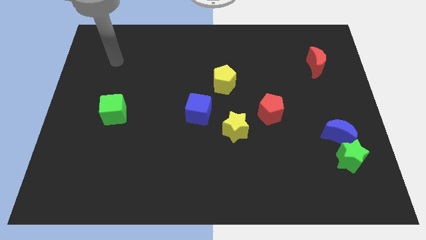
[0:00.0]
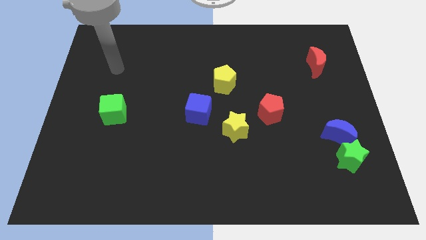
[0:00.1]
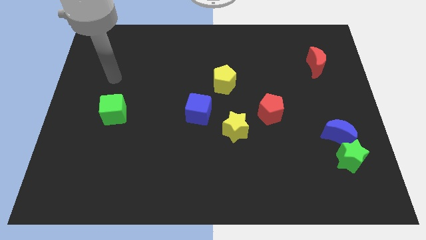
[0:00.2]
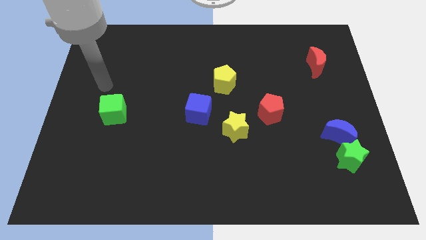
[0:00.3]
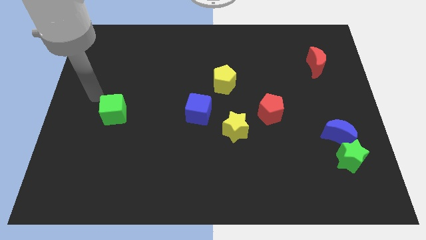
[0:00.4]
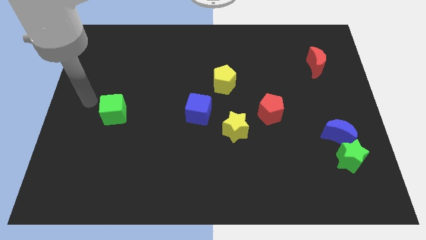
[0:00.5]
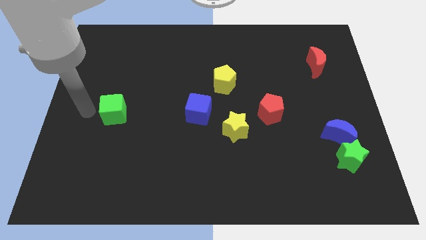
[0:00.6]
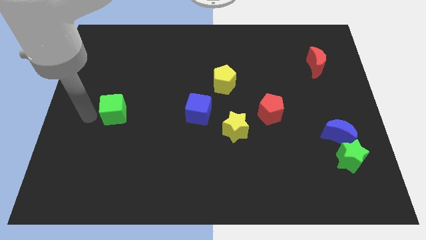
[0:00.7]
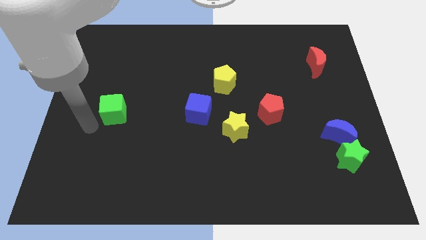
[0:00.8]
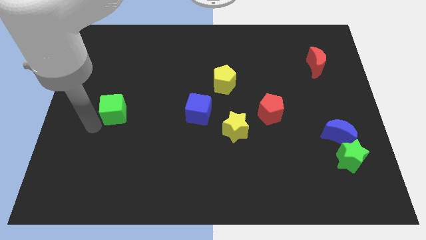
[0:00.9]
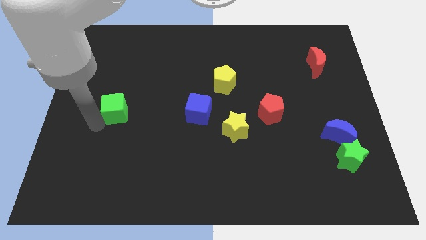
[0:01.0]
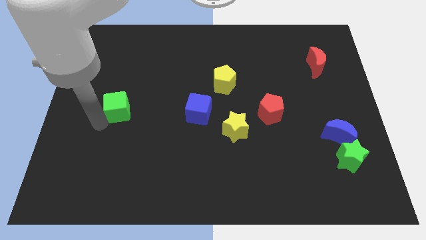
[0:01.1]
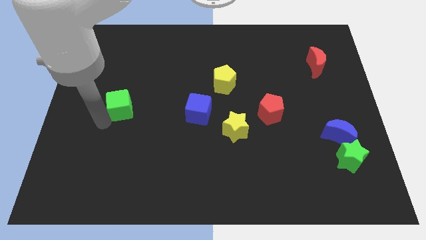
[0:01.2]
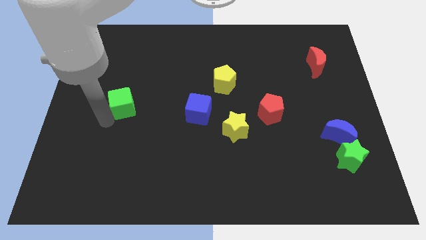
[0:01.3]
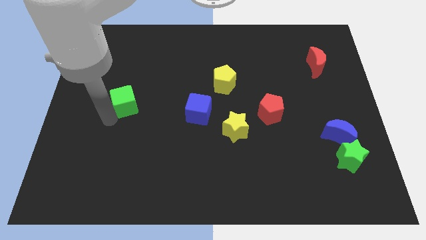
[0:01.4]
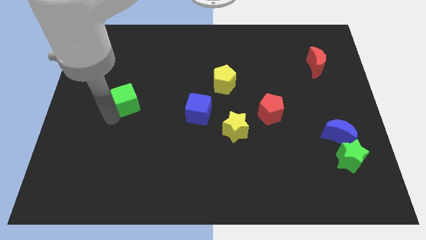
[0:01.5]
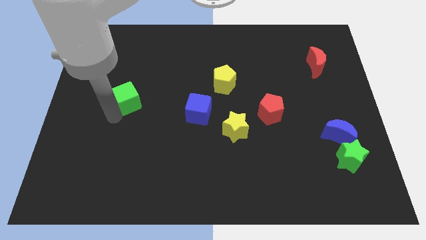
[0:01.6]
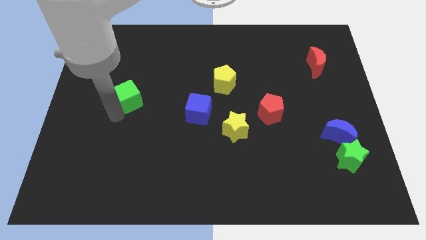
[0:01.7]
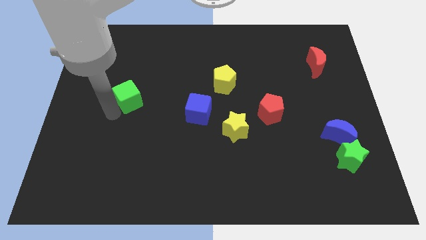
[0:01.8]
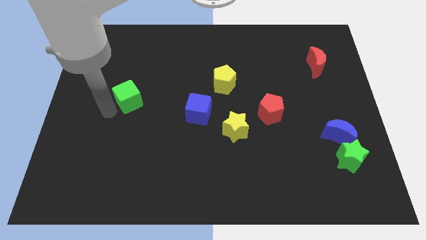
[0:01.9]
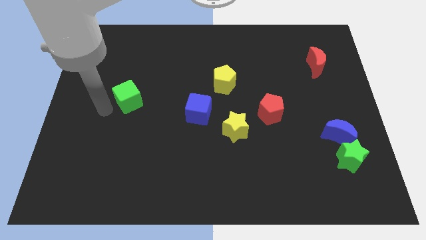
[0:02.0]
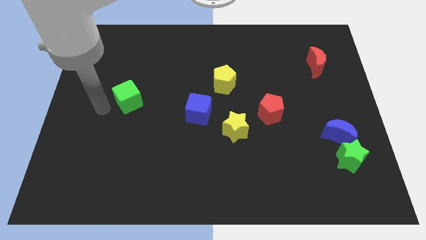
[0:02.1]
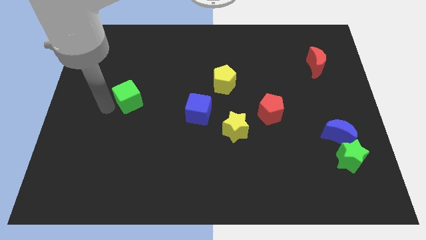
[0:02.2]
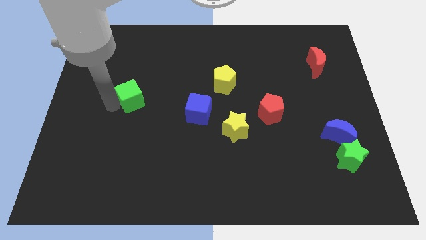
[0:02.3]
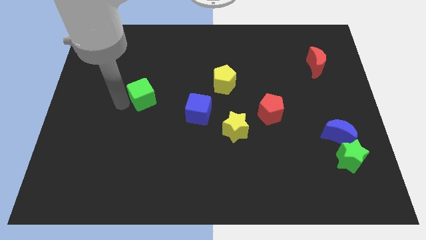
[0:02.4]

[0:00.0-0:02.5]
move the green cube up and to the right diagonally a bit

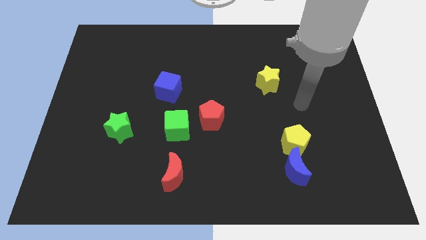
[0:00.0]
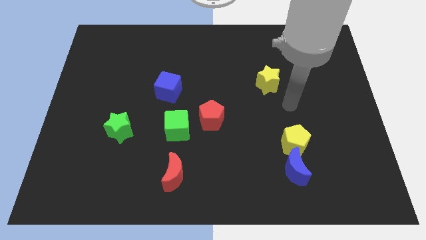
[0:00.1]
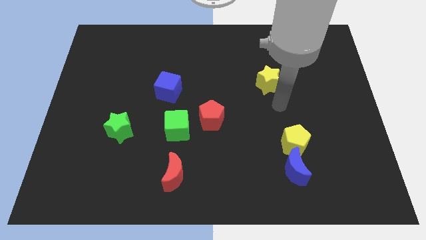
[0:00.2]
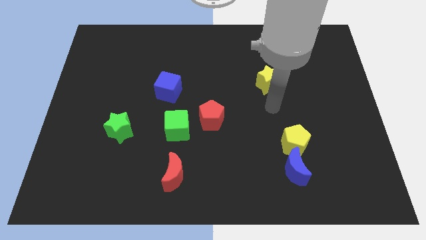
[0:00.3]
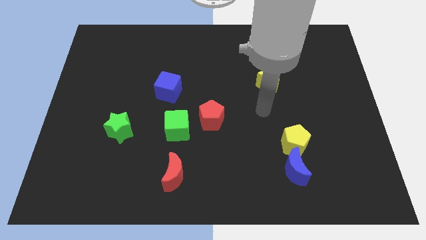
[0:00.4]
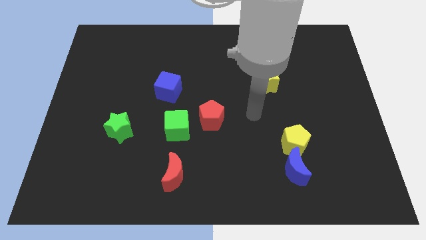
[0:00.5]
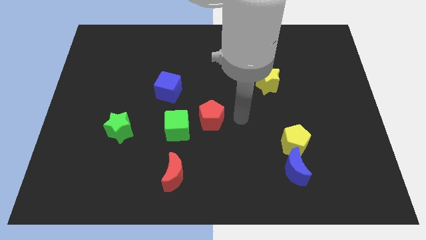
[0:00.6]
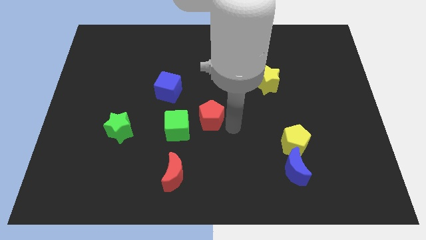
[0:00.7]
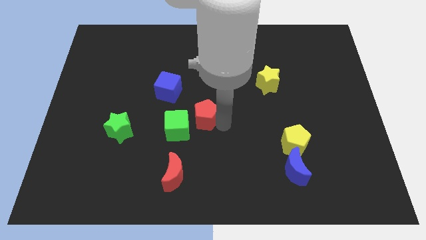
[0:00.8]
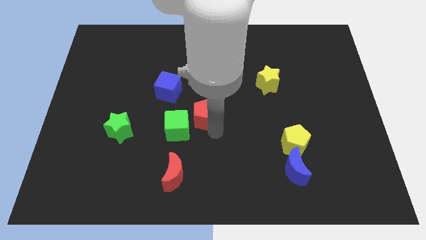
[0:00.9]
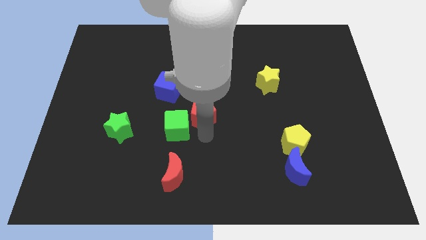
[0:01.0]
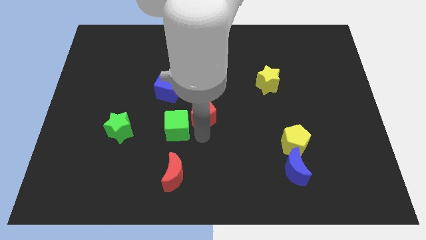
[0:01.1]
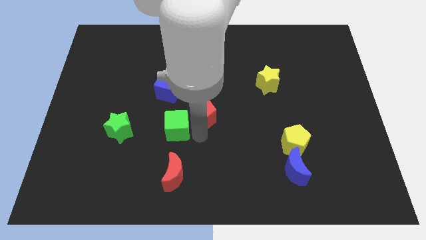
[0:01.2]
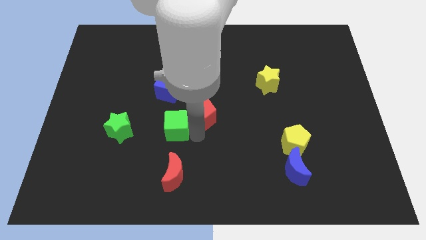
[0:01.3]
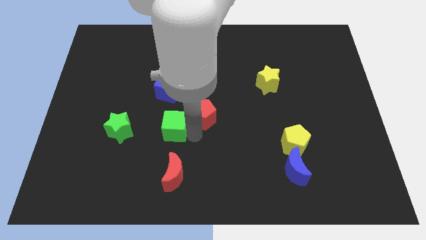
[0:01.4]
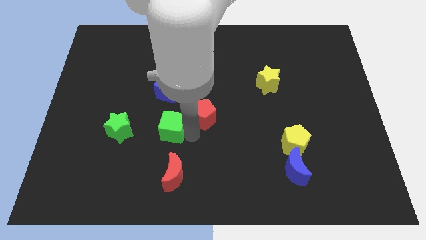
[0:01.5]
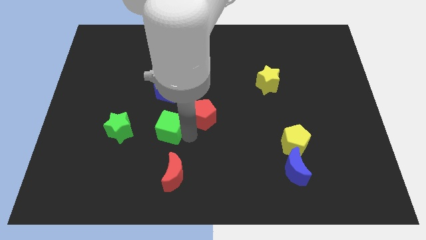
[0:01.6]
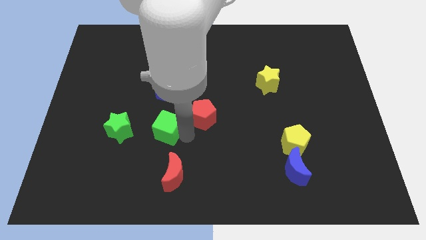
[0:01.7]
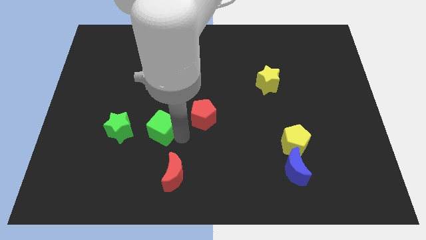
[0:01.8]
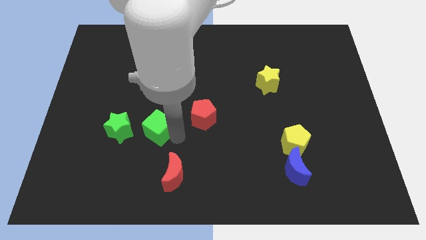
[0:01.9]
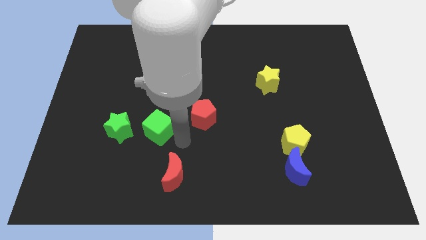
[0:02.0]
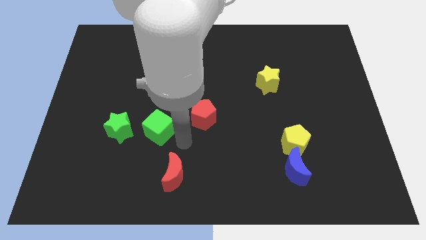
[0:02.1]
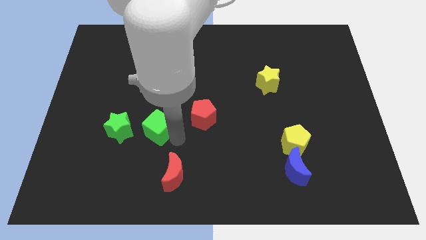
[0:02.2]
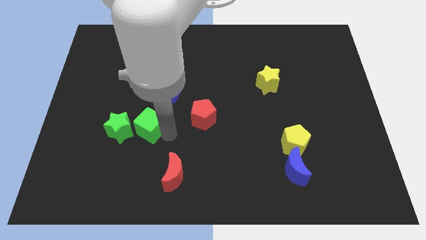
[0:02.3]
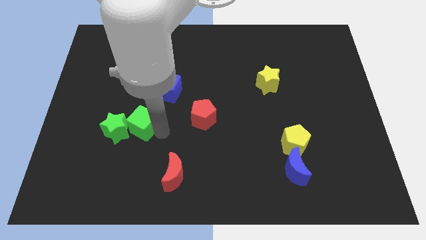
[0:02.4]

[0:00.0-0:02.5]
push the green cube left slightly

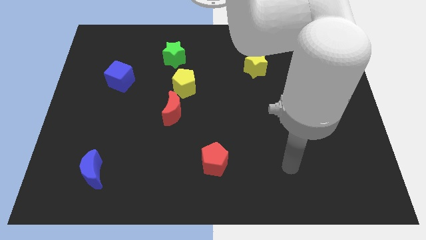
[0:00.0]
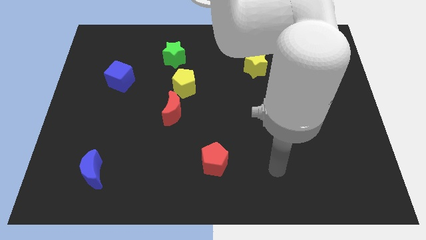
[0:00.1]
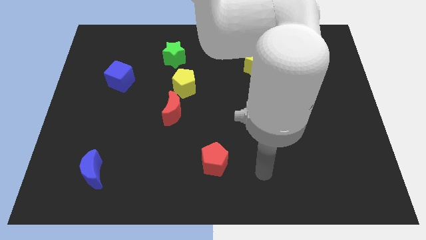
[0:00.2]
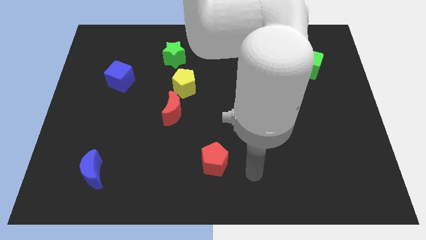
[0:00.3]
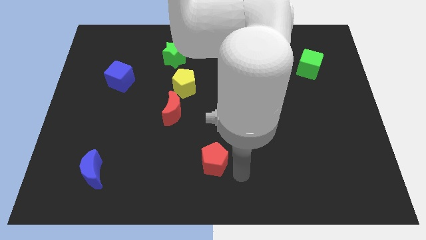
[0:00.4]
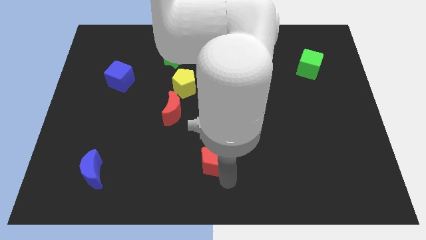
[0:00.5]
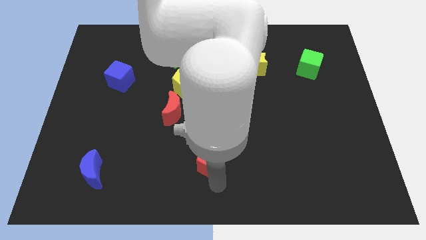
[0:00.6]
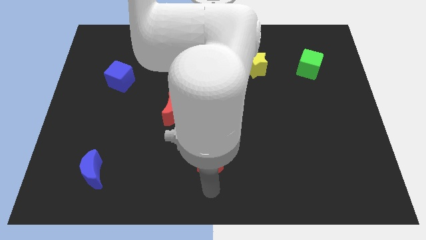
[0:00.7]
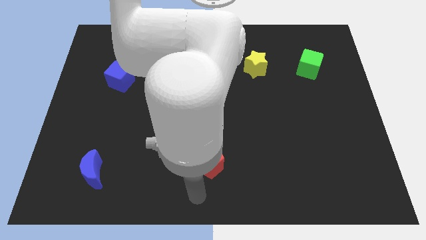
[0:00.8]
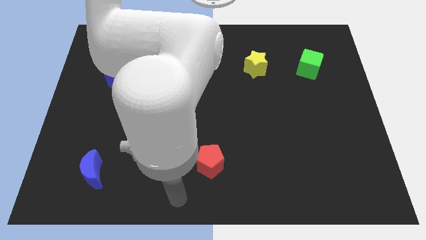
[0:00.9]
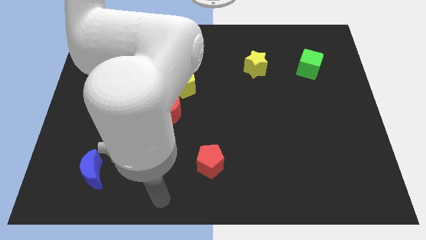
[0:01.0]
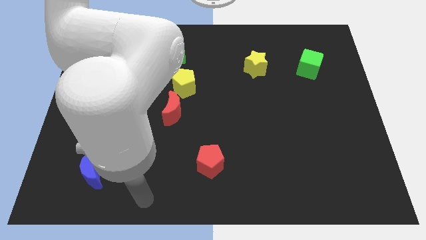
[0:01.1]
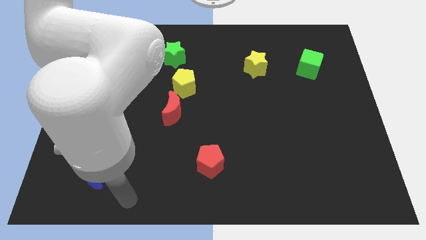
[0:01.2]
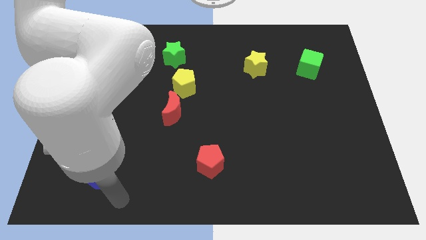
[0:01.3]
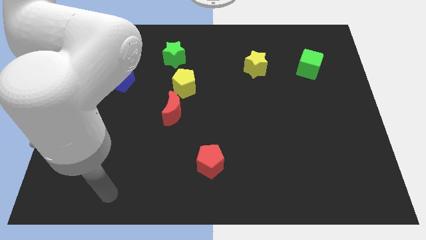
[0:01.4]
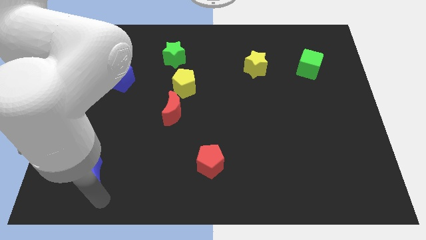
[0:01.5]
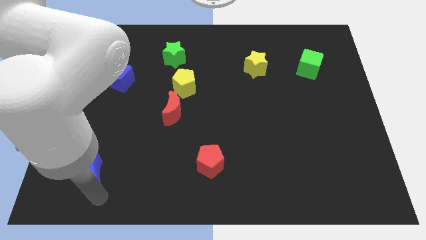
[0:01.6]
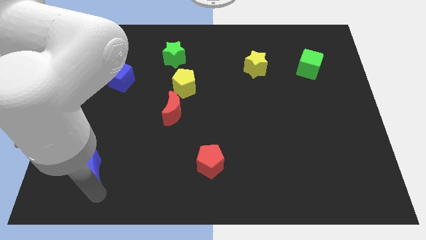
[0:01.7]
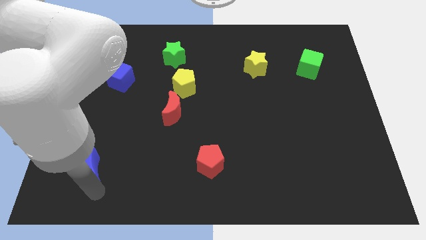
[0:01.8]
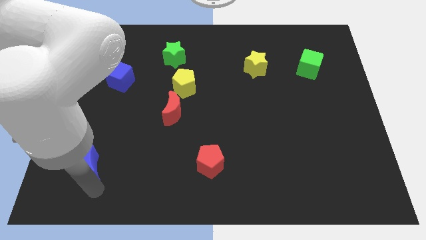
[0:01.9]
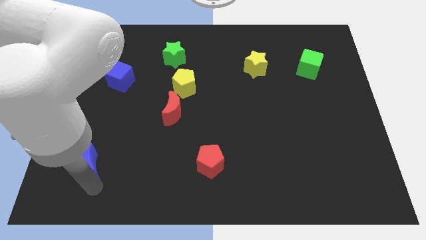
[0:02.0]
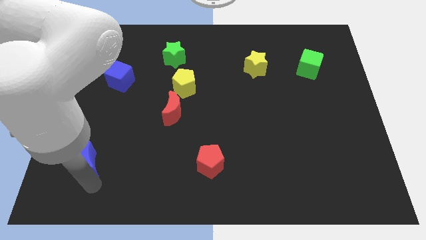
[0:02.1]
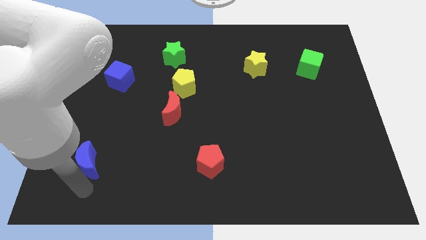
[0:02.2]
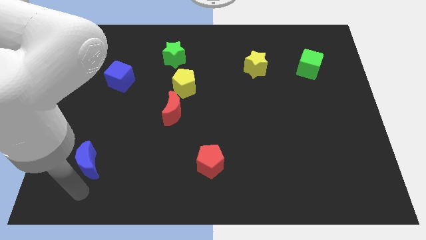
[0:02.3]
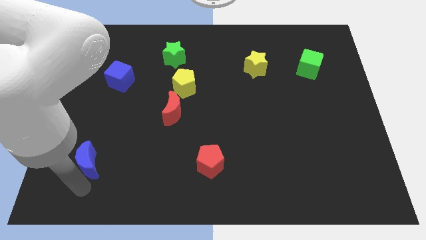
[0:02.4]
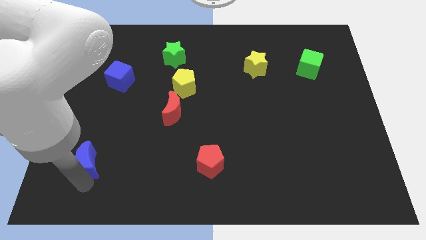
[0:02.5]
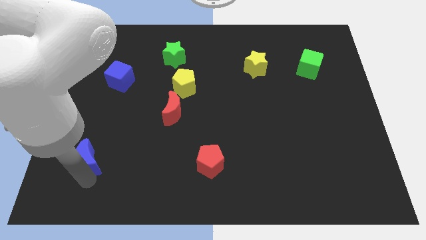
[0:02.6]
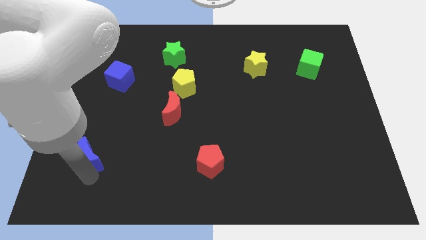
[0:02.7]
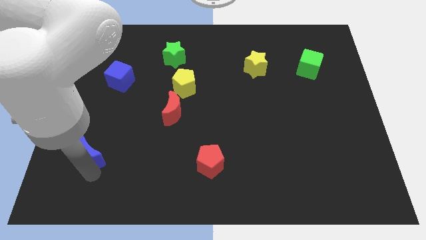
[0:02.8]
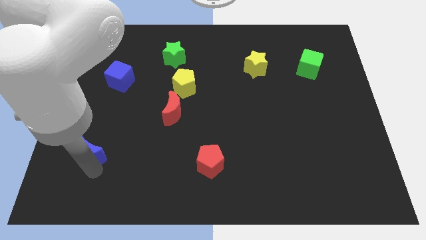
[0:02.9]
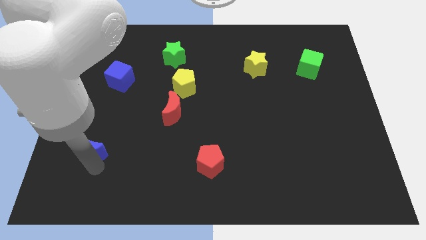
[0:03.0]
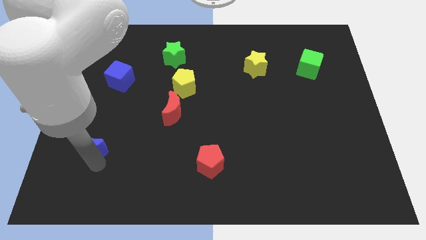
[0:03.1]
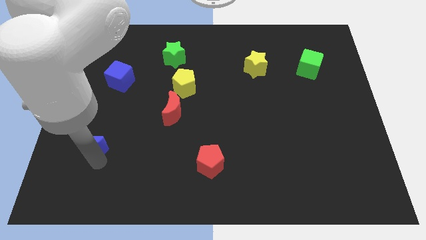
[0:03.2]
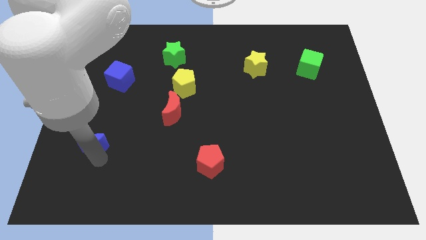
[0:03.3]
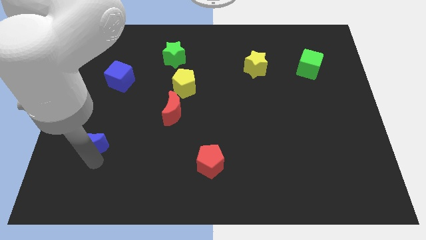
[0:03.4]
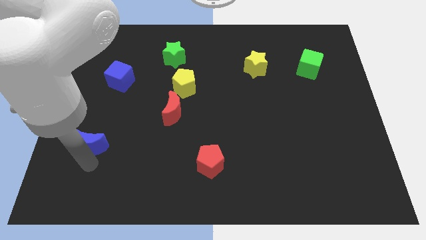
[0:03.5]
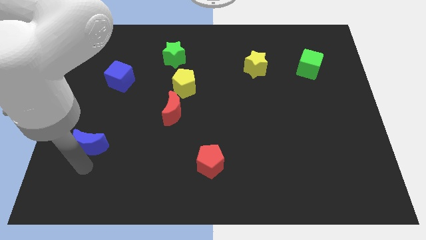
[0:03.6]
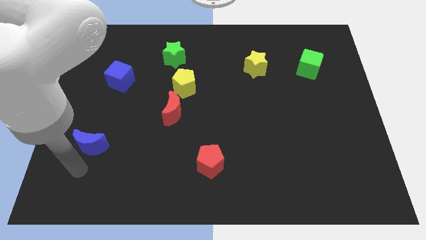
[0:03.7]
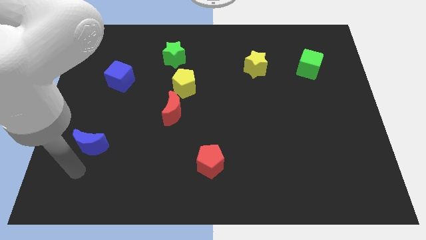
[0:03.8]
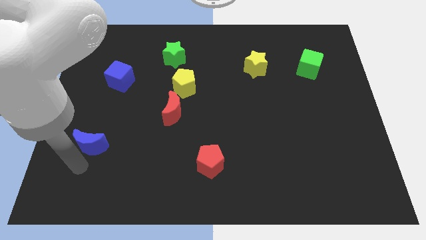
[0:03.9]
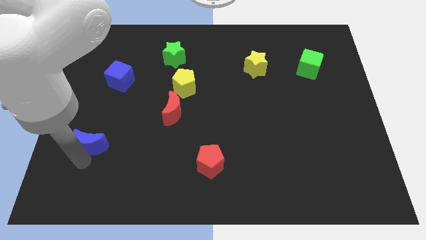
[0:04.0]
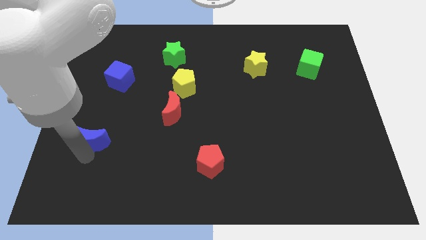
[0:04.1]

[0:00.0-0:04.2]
push the blue moon upwards a bit
